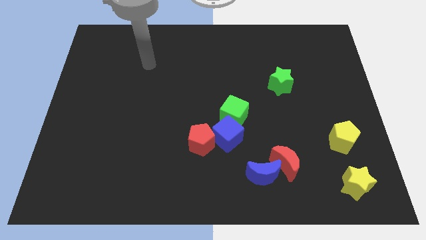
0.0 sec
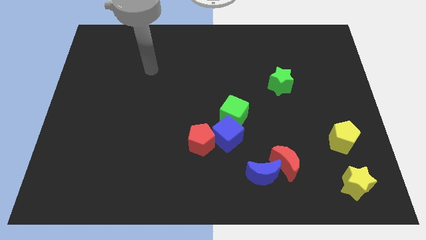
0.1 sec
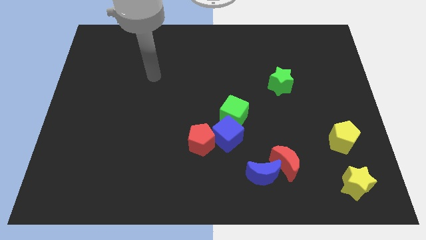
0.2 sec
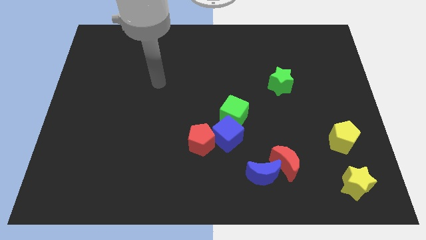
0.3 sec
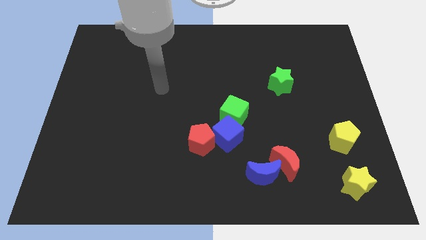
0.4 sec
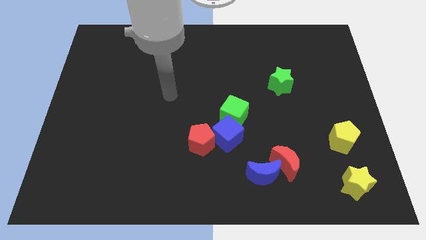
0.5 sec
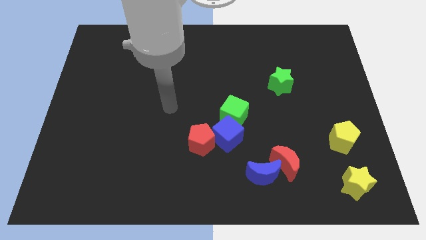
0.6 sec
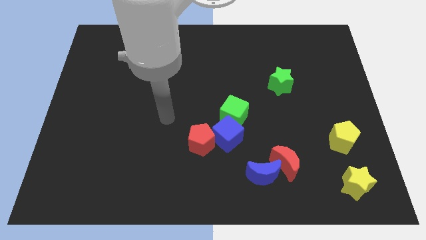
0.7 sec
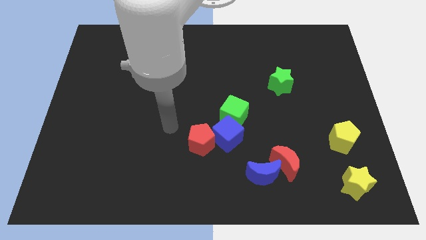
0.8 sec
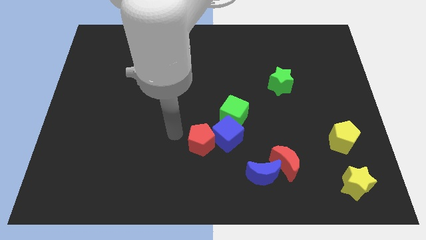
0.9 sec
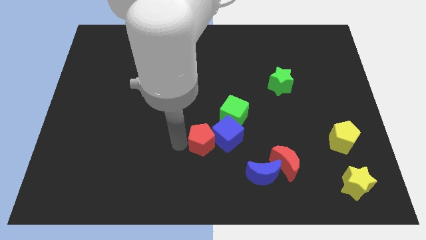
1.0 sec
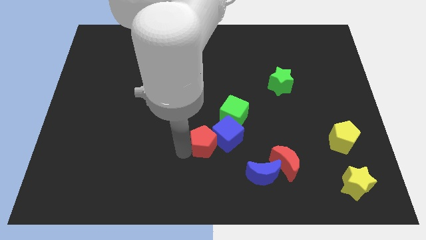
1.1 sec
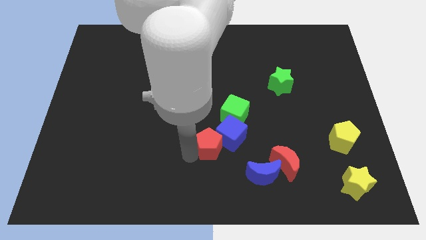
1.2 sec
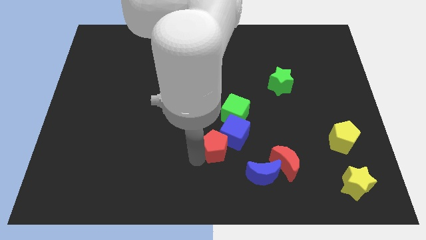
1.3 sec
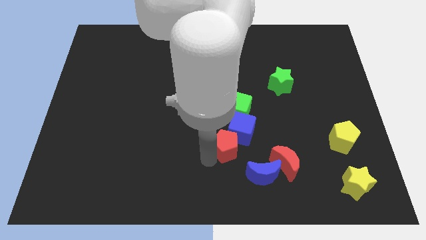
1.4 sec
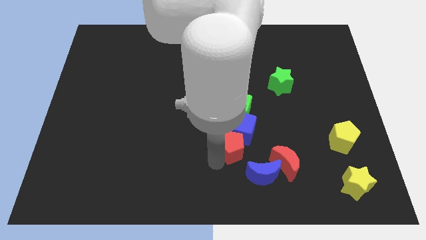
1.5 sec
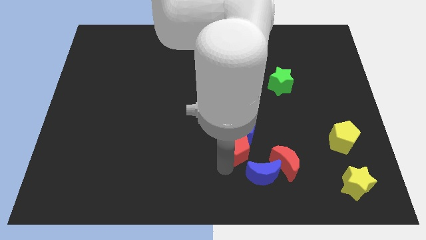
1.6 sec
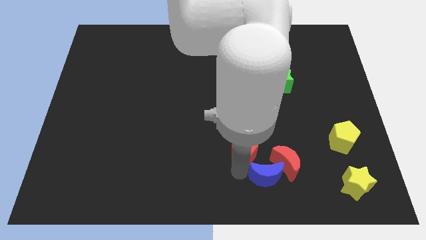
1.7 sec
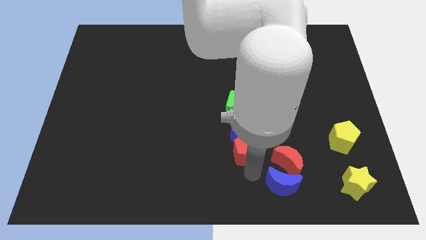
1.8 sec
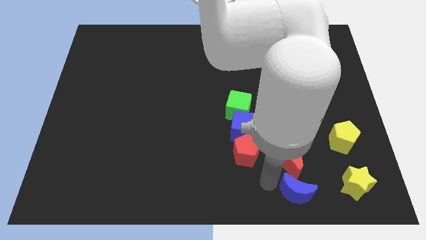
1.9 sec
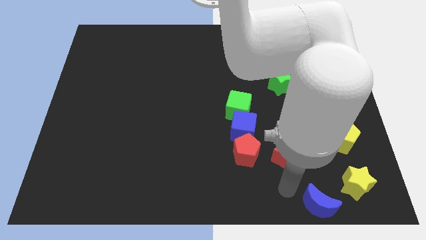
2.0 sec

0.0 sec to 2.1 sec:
move the red moon away from the blue moon

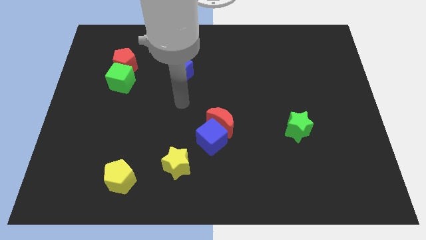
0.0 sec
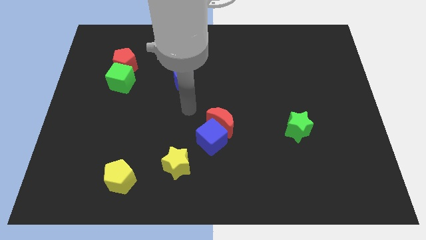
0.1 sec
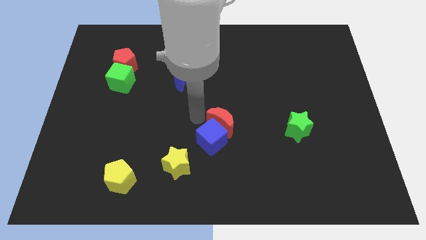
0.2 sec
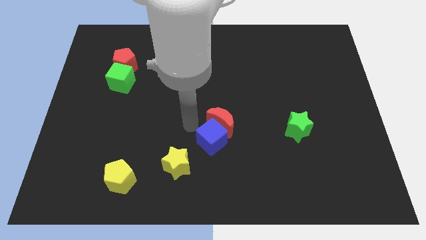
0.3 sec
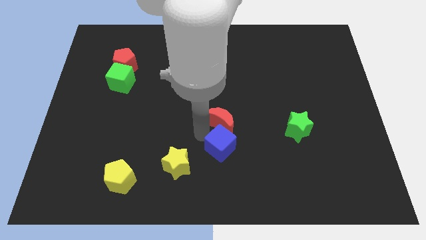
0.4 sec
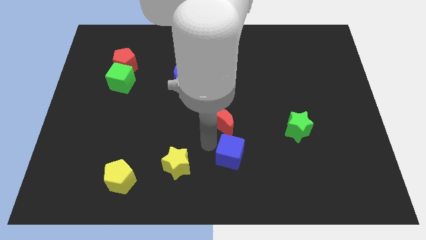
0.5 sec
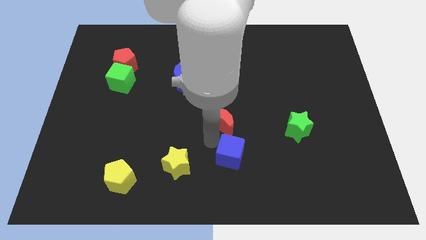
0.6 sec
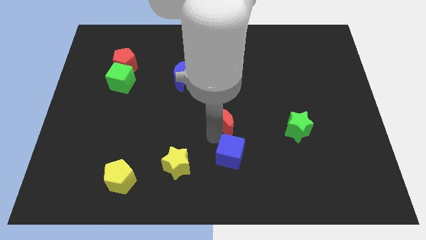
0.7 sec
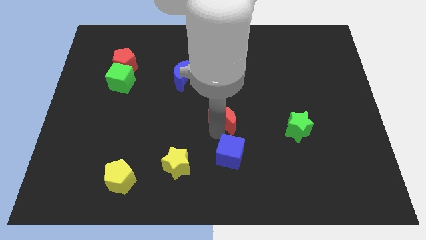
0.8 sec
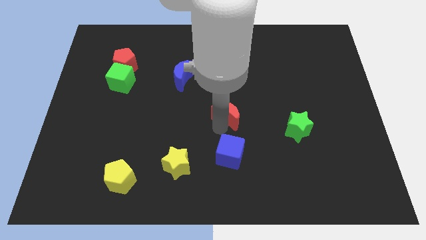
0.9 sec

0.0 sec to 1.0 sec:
pull the red moon apart from the blue cube

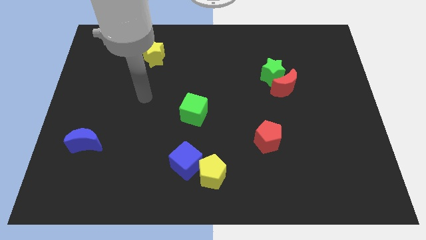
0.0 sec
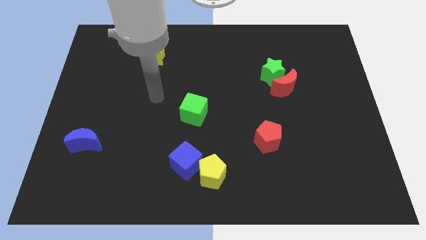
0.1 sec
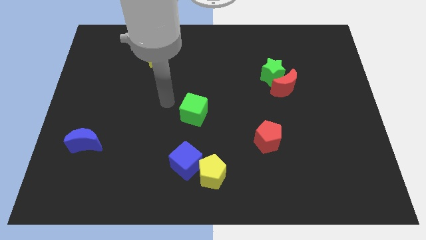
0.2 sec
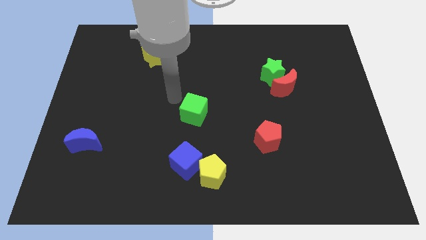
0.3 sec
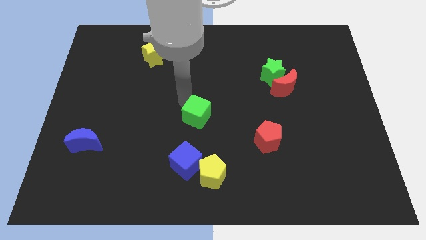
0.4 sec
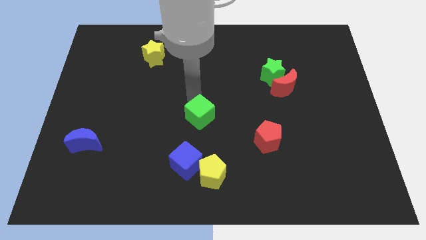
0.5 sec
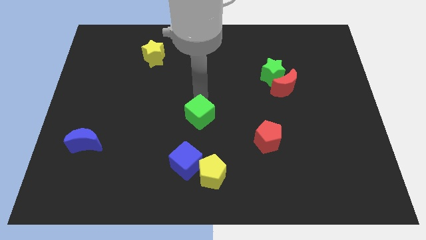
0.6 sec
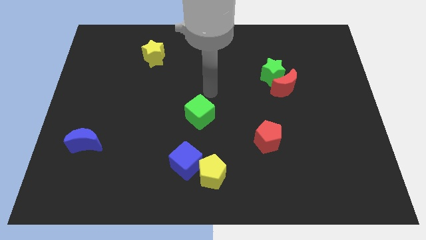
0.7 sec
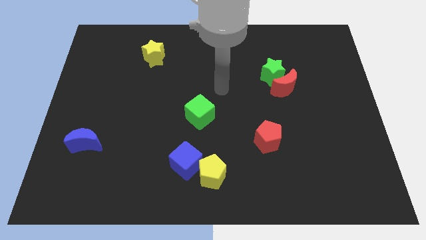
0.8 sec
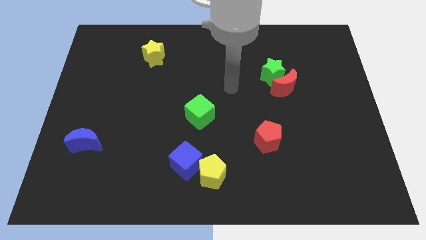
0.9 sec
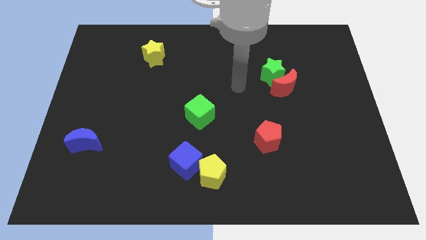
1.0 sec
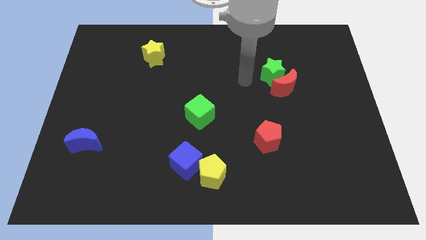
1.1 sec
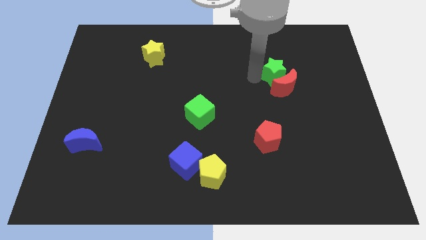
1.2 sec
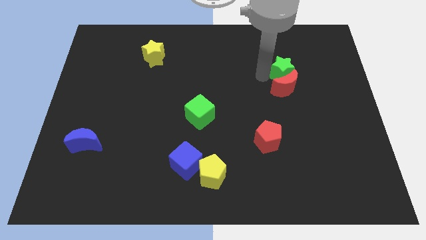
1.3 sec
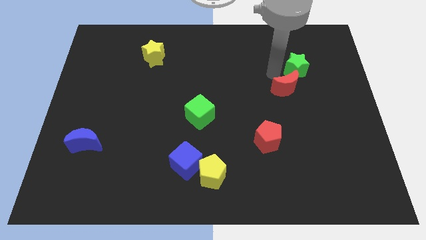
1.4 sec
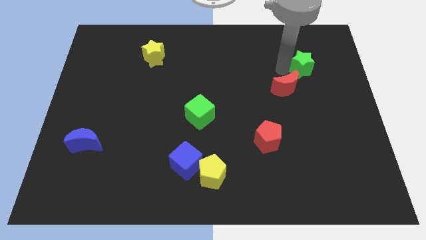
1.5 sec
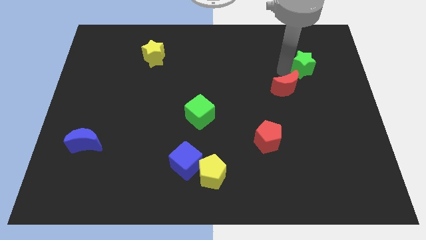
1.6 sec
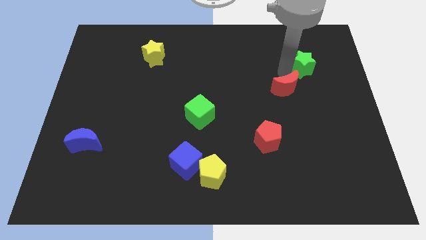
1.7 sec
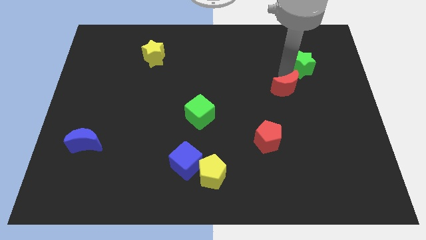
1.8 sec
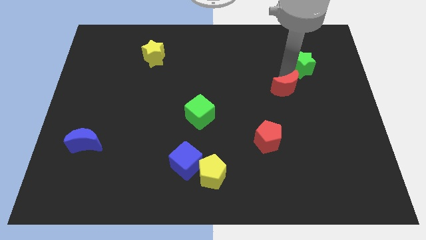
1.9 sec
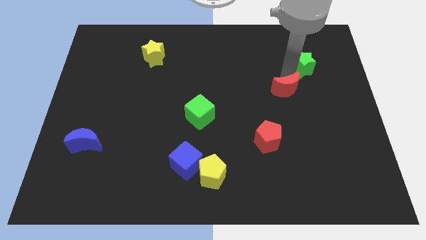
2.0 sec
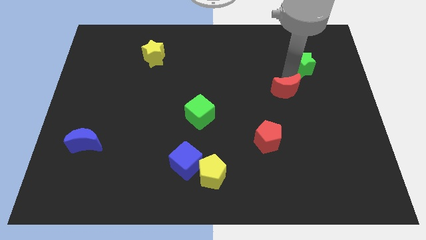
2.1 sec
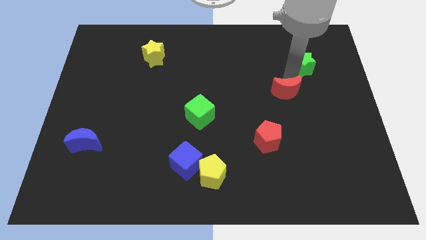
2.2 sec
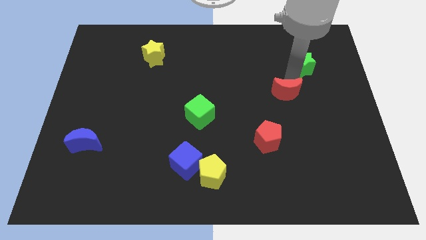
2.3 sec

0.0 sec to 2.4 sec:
separate the red moon from the green star

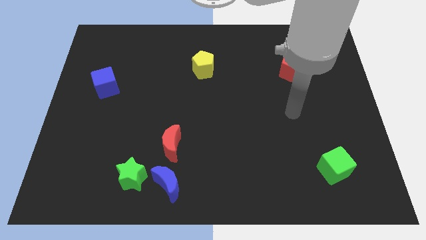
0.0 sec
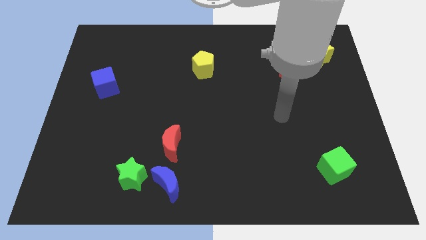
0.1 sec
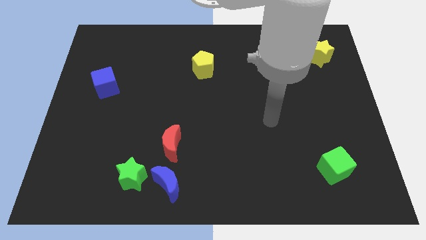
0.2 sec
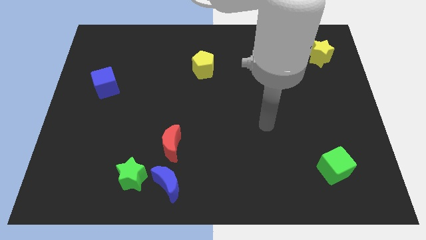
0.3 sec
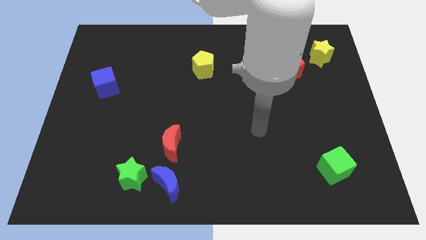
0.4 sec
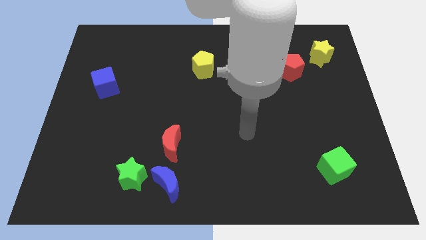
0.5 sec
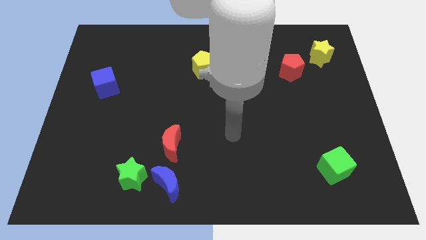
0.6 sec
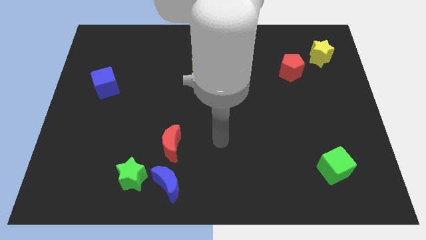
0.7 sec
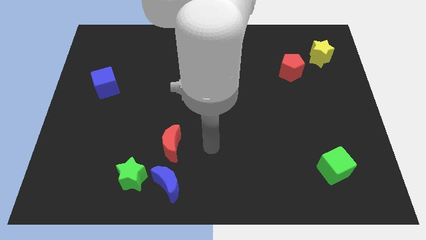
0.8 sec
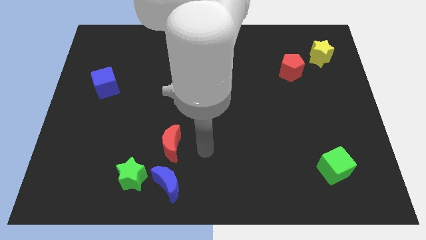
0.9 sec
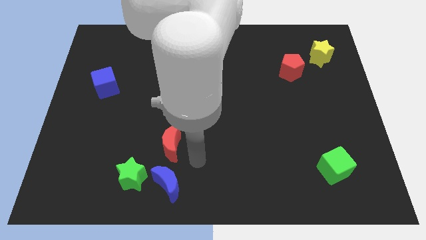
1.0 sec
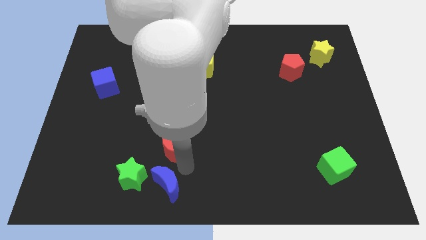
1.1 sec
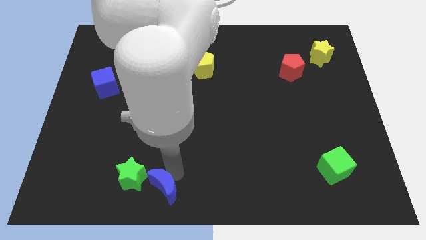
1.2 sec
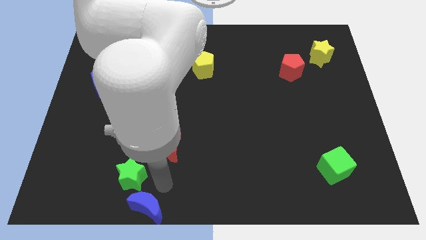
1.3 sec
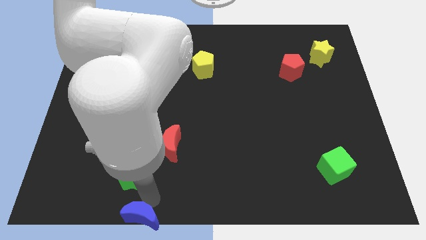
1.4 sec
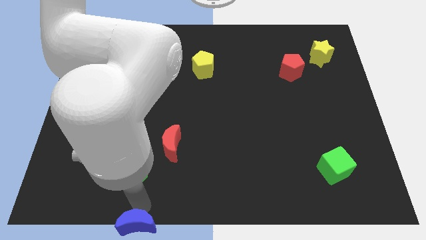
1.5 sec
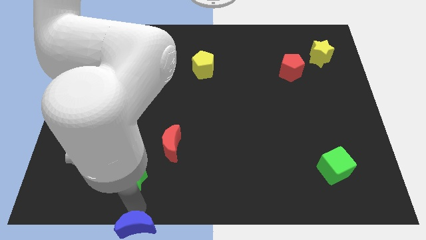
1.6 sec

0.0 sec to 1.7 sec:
move the green star away from the blue moon

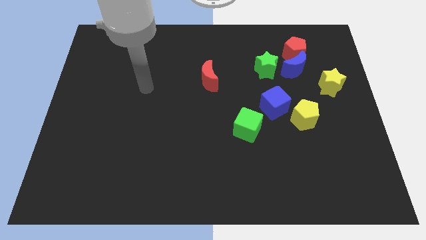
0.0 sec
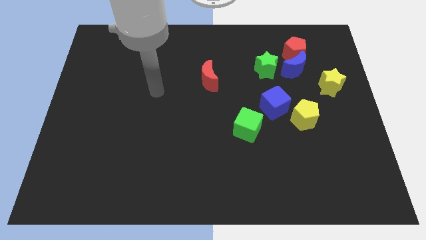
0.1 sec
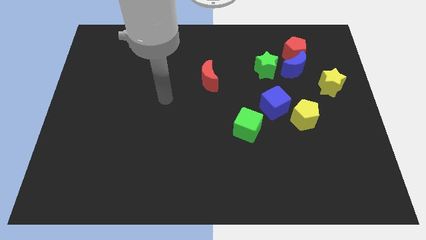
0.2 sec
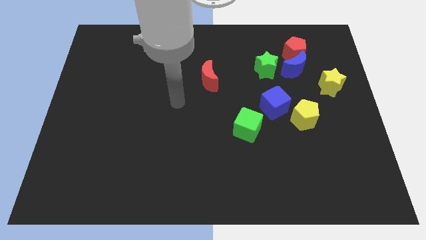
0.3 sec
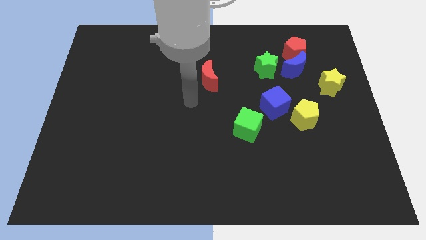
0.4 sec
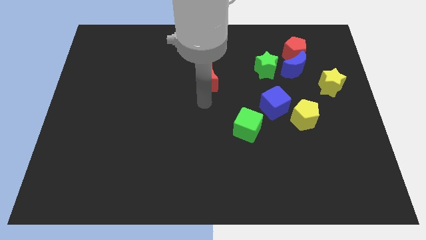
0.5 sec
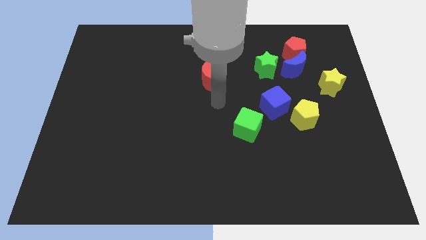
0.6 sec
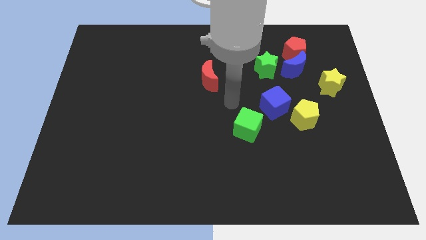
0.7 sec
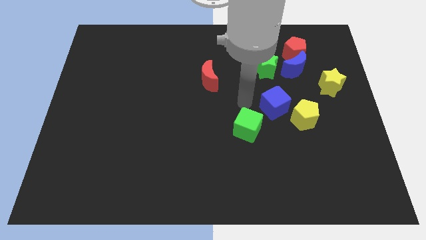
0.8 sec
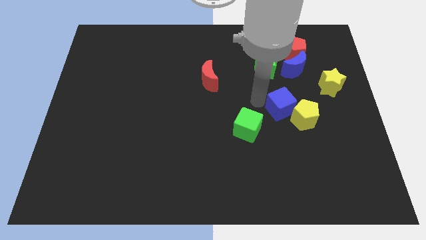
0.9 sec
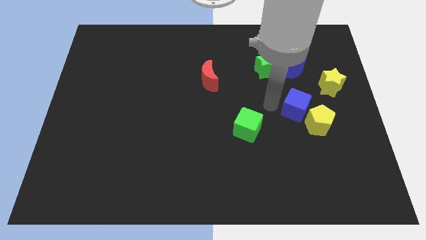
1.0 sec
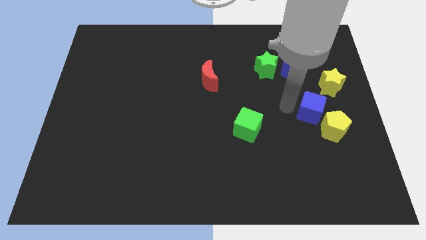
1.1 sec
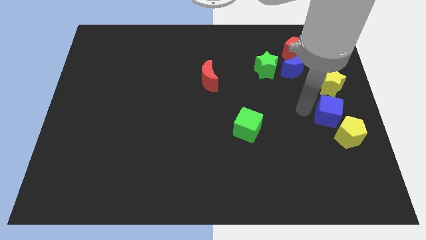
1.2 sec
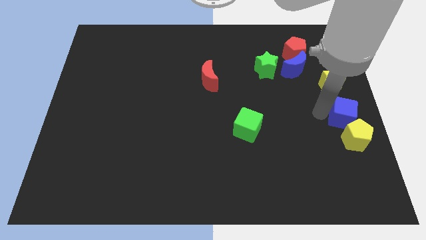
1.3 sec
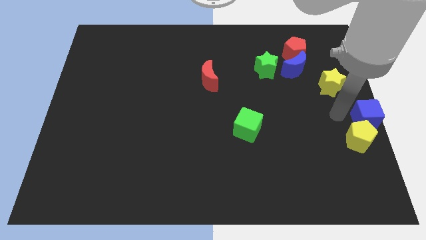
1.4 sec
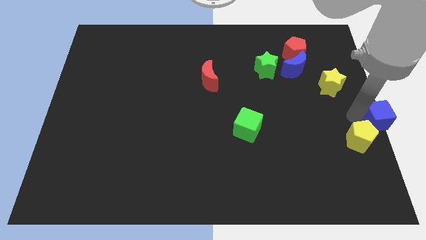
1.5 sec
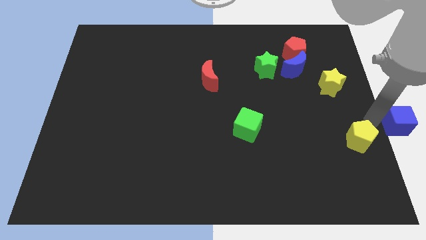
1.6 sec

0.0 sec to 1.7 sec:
move the yellow pentagon away from the blue cube

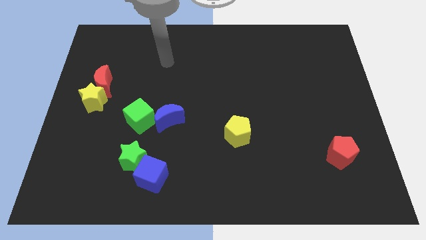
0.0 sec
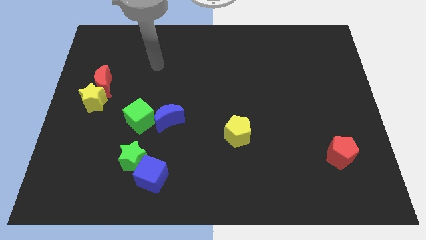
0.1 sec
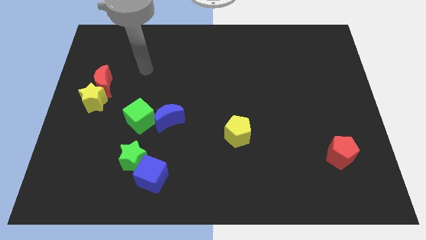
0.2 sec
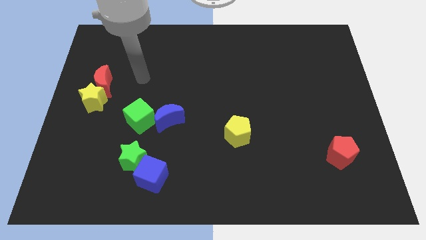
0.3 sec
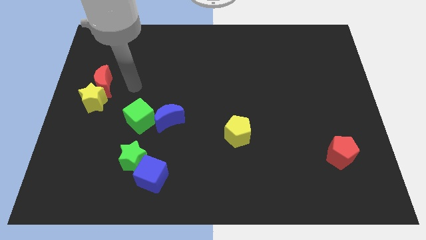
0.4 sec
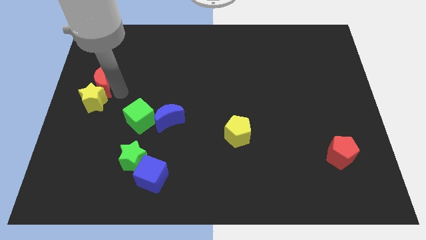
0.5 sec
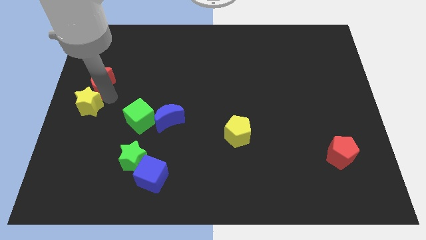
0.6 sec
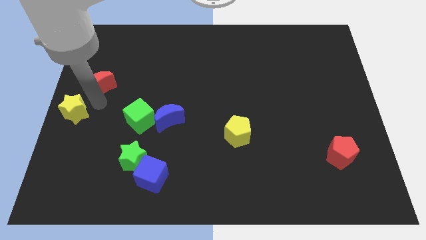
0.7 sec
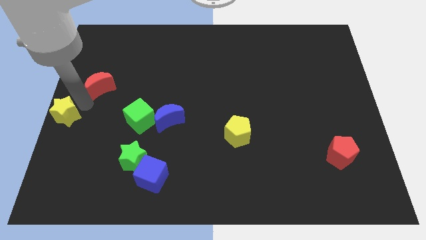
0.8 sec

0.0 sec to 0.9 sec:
pull the red moon apart from the yellow star
